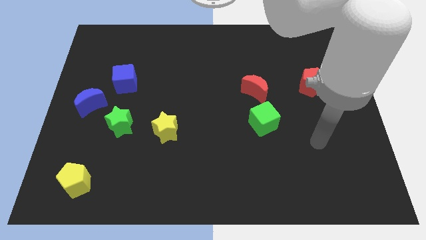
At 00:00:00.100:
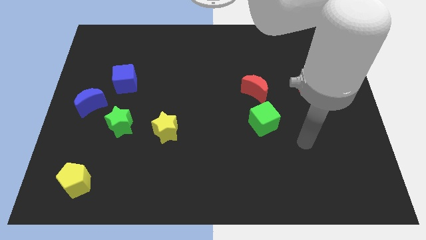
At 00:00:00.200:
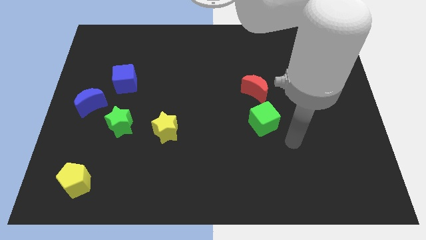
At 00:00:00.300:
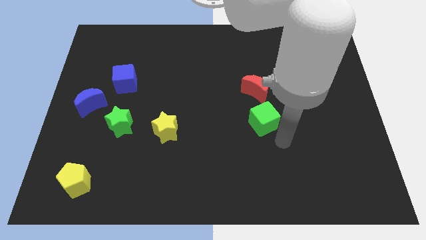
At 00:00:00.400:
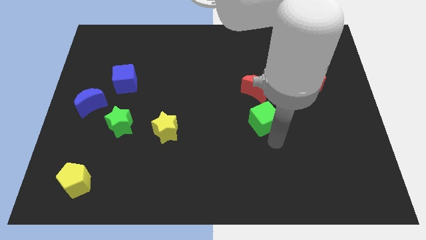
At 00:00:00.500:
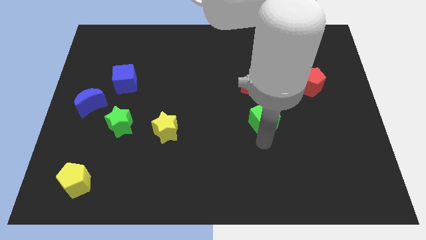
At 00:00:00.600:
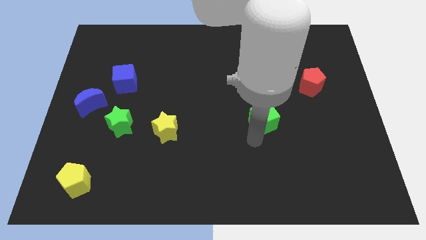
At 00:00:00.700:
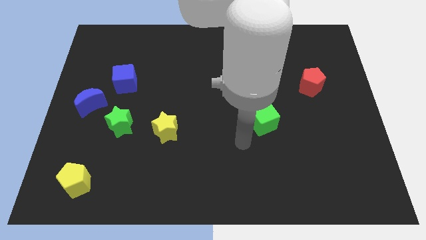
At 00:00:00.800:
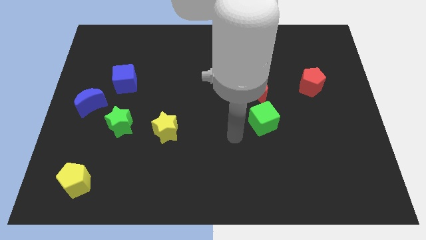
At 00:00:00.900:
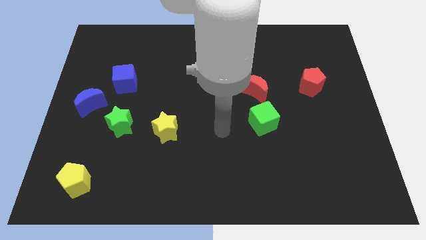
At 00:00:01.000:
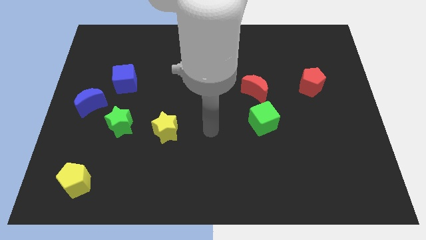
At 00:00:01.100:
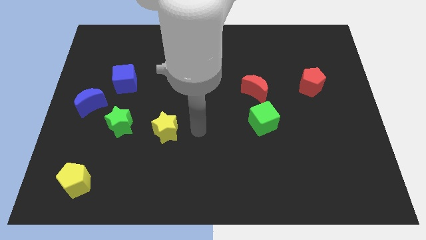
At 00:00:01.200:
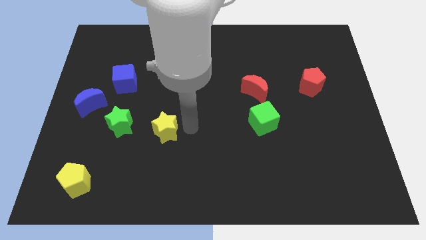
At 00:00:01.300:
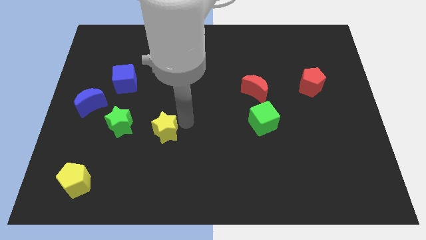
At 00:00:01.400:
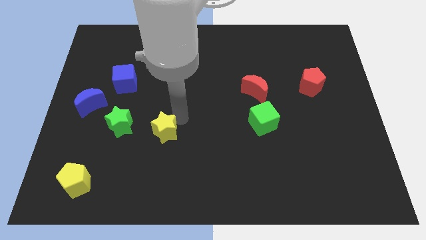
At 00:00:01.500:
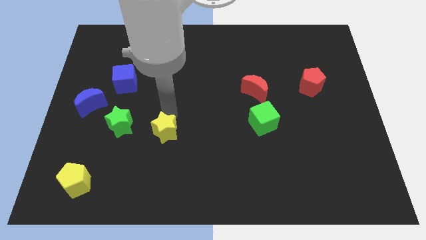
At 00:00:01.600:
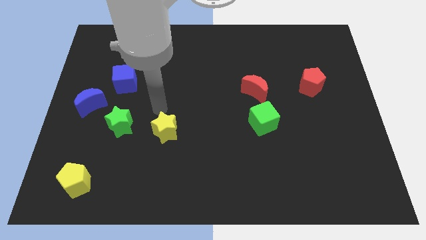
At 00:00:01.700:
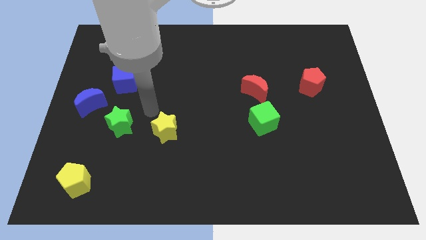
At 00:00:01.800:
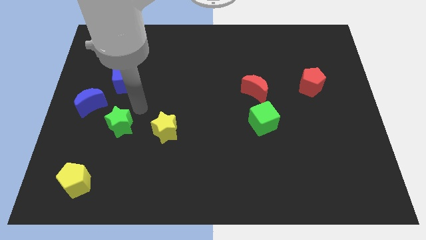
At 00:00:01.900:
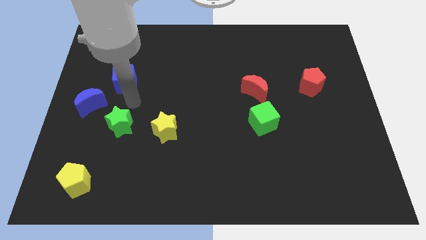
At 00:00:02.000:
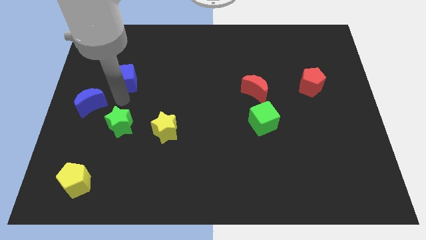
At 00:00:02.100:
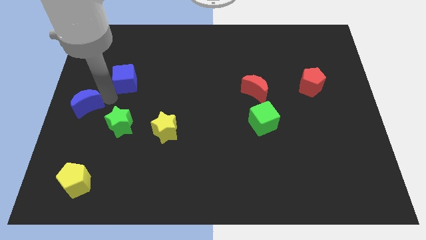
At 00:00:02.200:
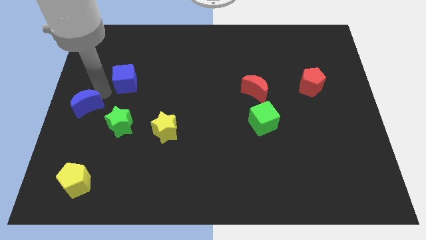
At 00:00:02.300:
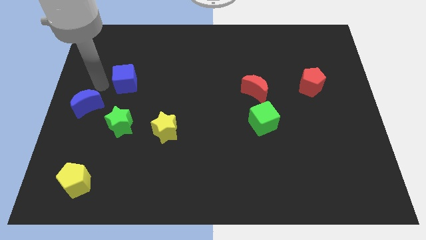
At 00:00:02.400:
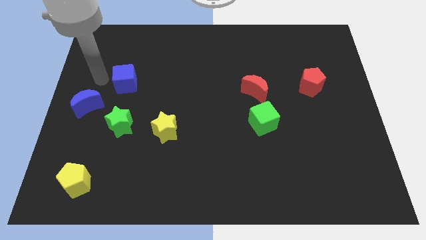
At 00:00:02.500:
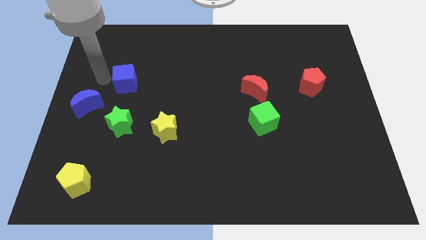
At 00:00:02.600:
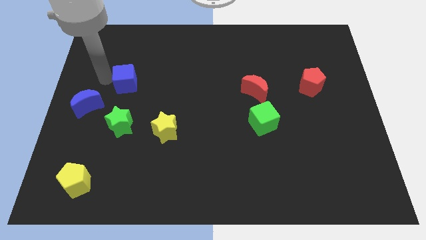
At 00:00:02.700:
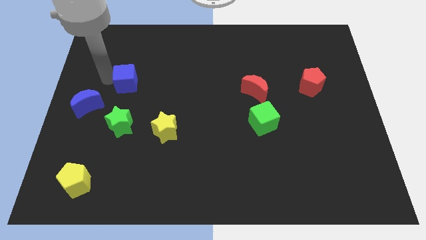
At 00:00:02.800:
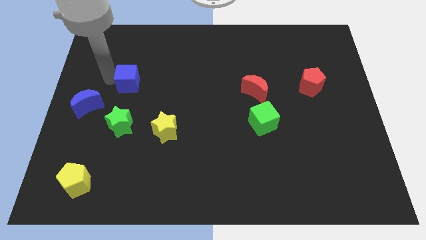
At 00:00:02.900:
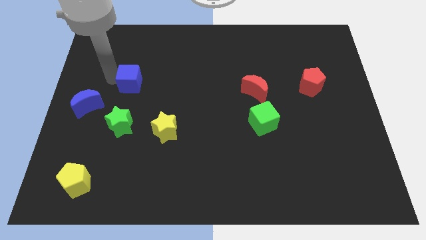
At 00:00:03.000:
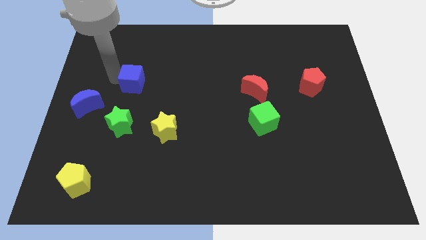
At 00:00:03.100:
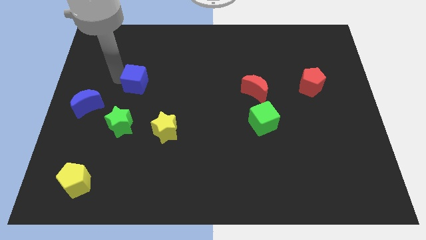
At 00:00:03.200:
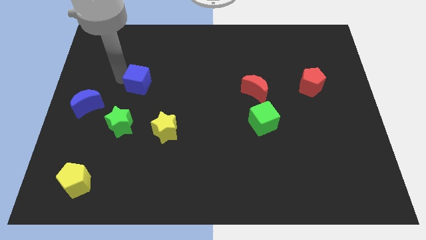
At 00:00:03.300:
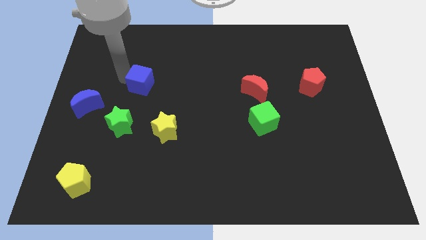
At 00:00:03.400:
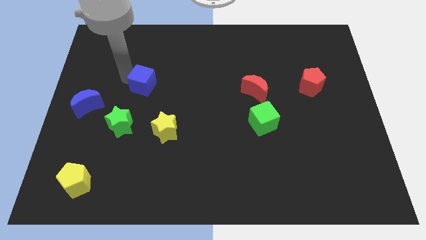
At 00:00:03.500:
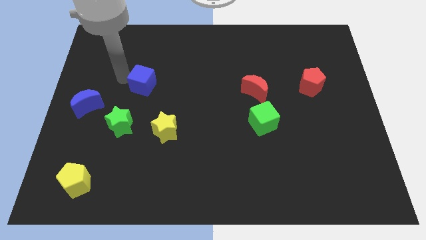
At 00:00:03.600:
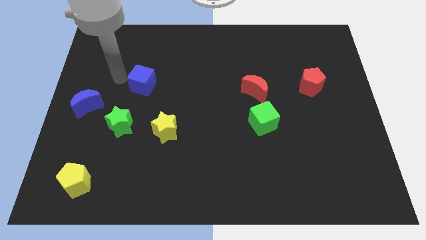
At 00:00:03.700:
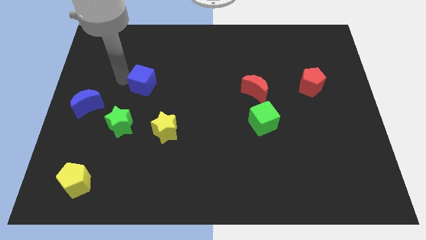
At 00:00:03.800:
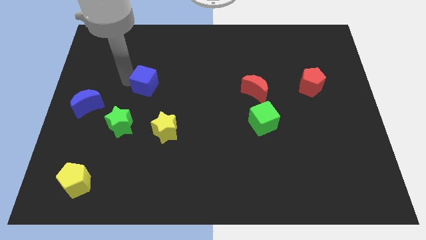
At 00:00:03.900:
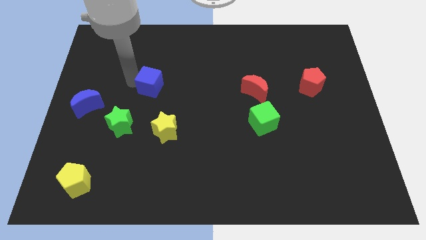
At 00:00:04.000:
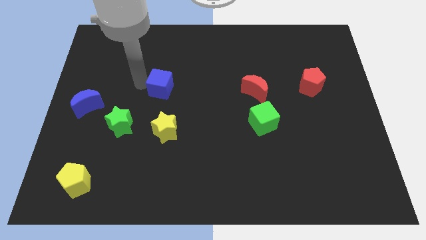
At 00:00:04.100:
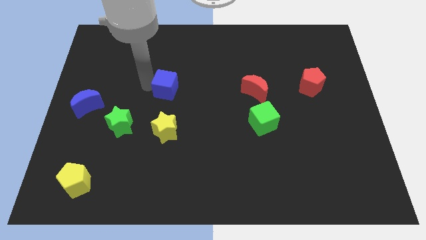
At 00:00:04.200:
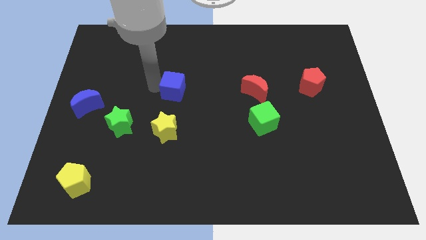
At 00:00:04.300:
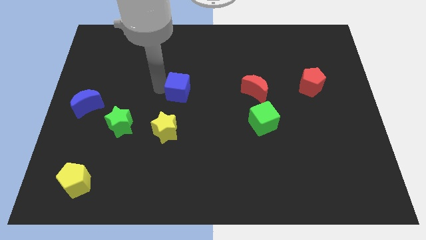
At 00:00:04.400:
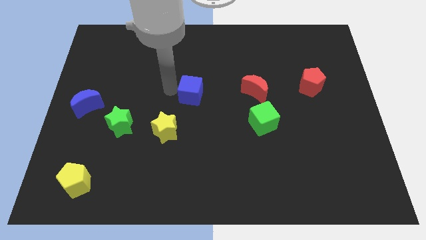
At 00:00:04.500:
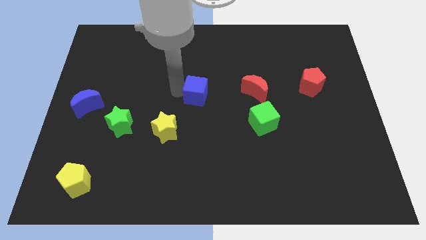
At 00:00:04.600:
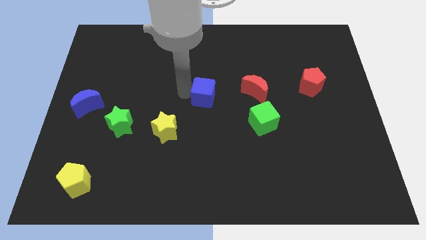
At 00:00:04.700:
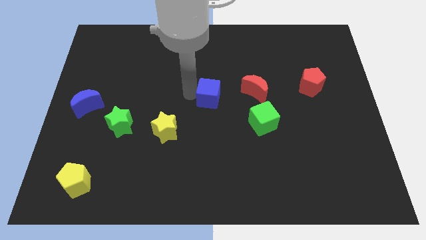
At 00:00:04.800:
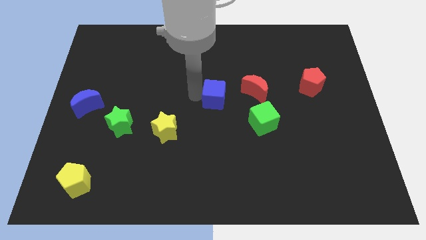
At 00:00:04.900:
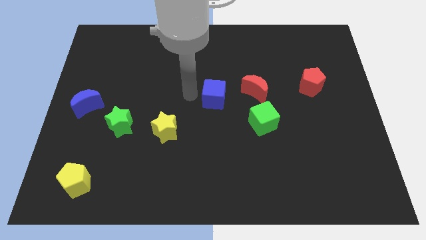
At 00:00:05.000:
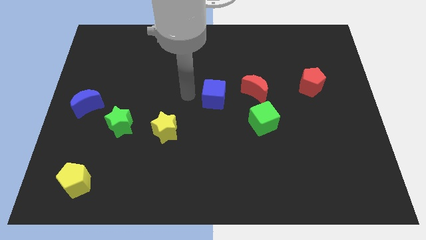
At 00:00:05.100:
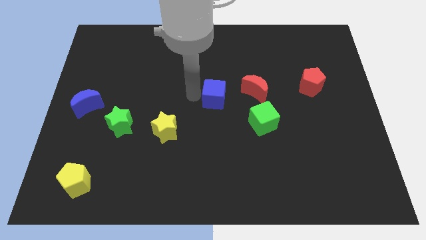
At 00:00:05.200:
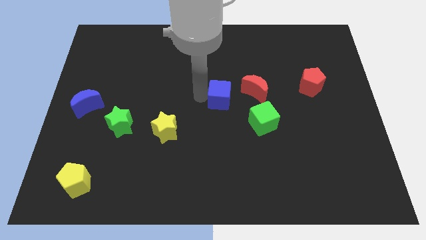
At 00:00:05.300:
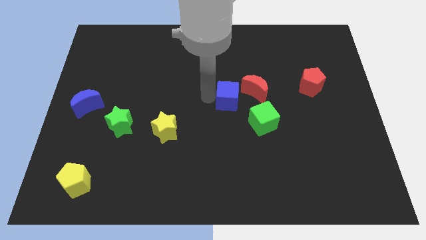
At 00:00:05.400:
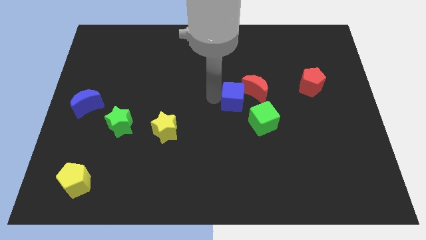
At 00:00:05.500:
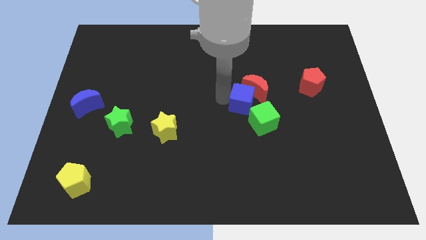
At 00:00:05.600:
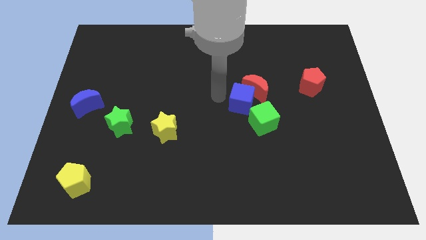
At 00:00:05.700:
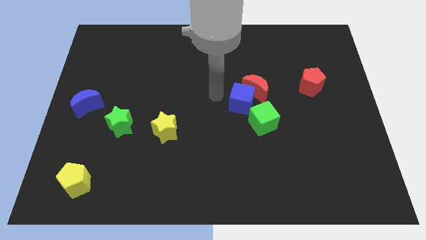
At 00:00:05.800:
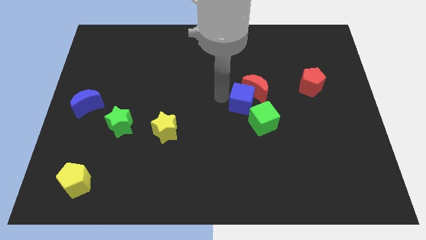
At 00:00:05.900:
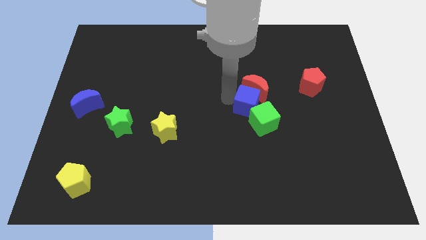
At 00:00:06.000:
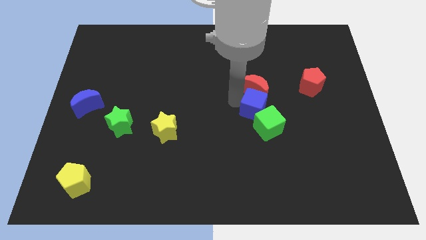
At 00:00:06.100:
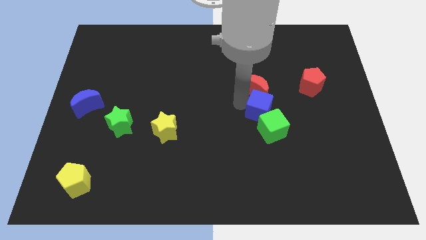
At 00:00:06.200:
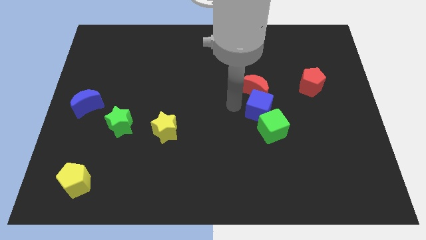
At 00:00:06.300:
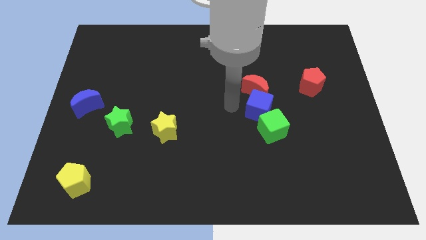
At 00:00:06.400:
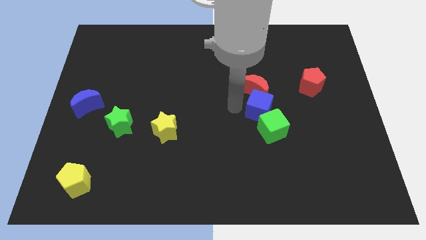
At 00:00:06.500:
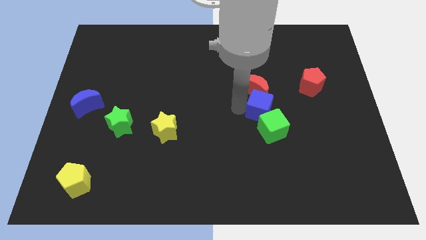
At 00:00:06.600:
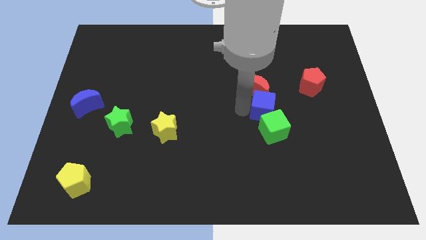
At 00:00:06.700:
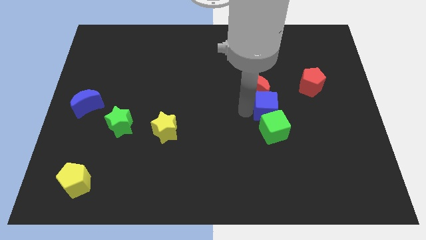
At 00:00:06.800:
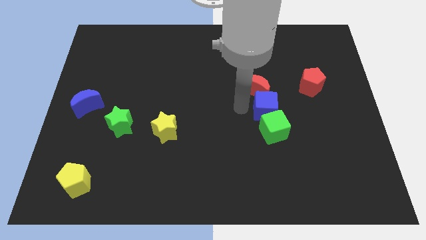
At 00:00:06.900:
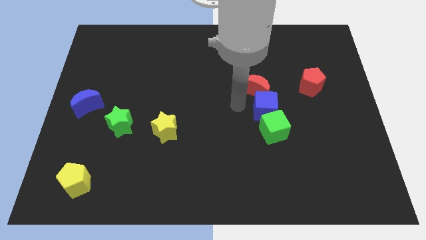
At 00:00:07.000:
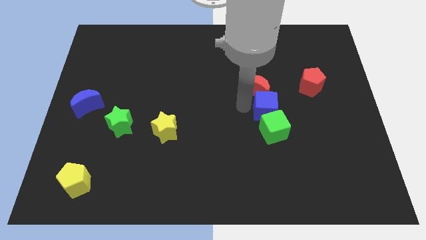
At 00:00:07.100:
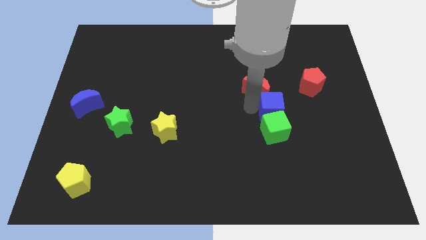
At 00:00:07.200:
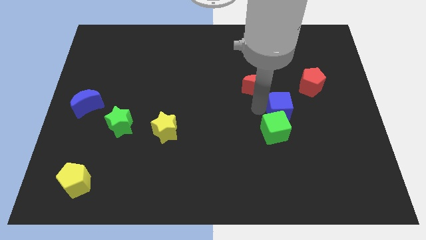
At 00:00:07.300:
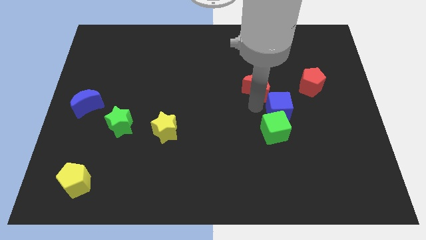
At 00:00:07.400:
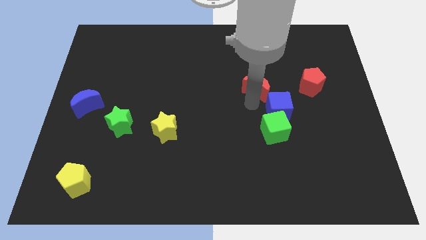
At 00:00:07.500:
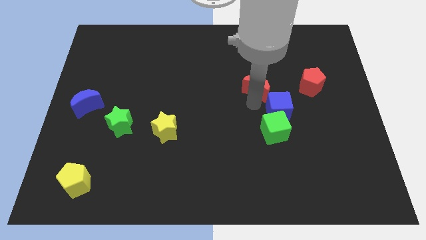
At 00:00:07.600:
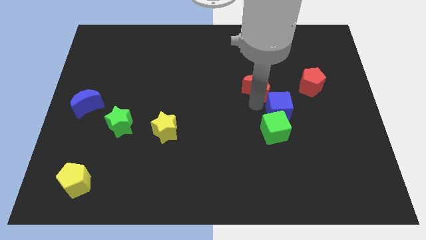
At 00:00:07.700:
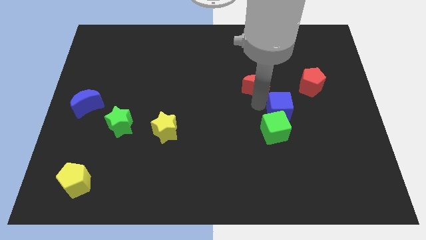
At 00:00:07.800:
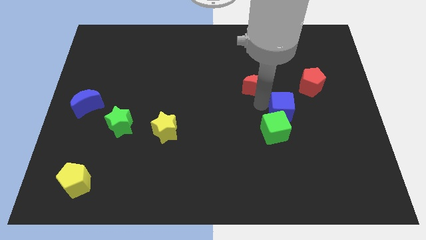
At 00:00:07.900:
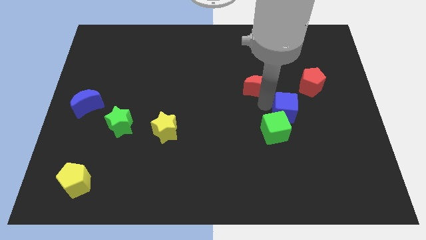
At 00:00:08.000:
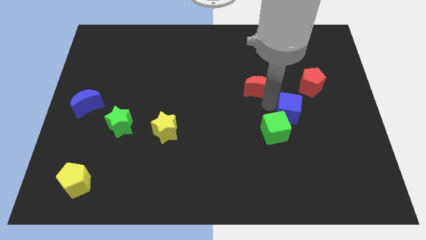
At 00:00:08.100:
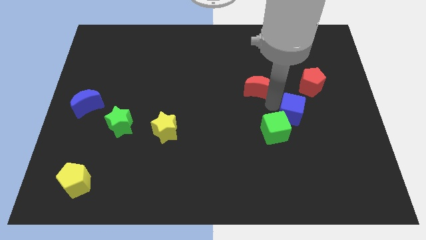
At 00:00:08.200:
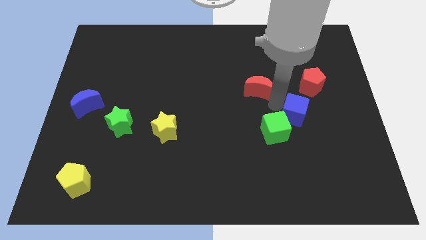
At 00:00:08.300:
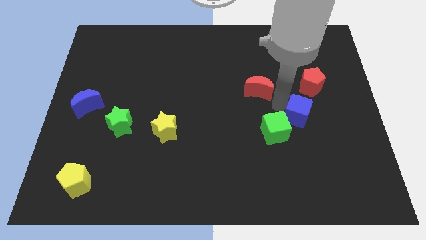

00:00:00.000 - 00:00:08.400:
slide the blue cube to the bottom of the red pentagon
